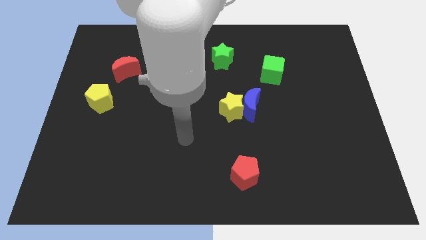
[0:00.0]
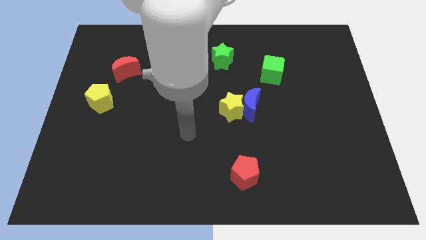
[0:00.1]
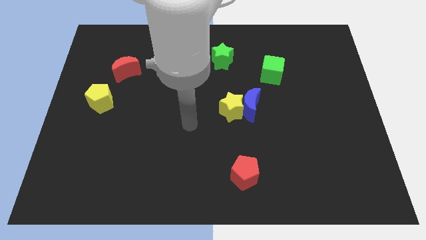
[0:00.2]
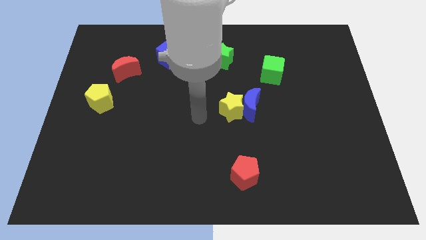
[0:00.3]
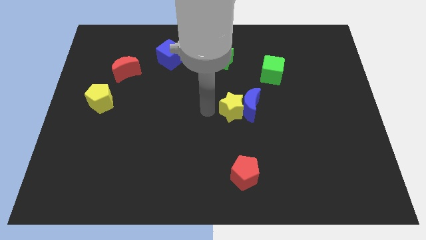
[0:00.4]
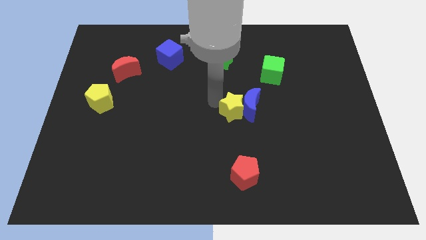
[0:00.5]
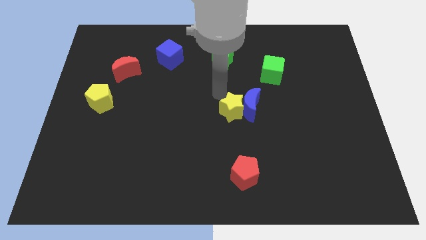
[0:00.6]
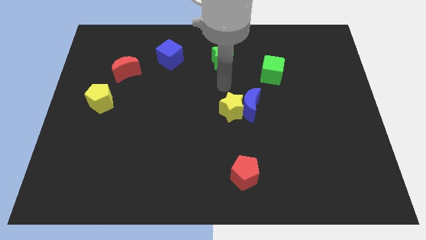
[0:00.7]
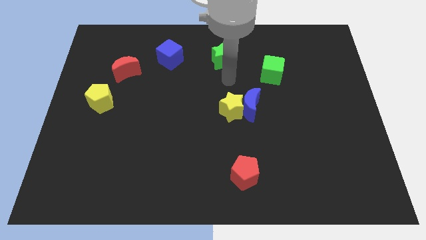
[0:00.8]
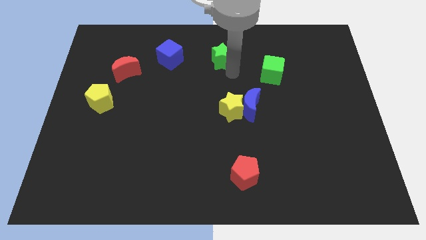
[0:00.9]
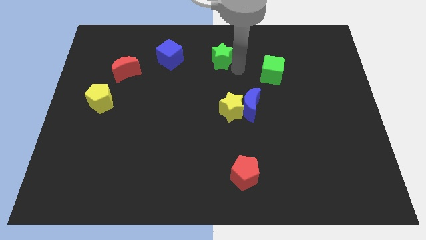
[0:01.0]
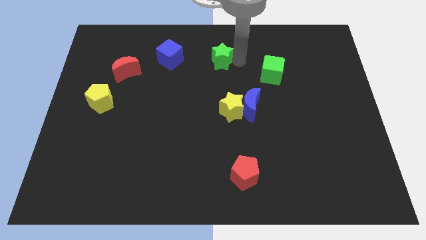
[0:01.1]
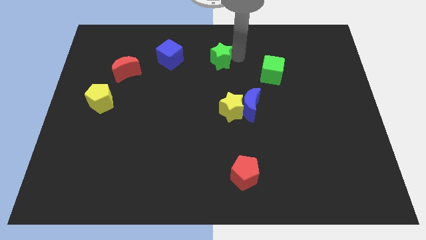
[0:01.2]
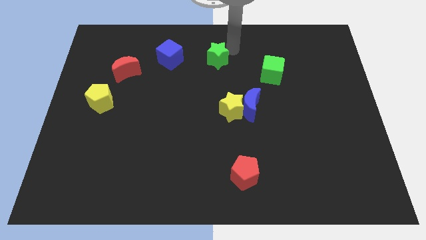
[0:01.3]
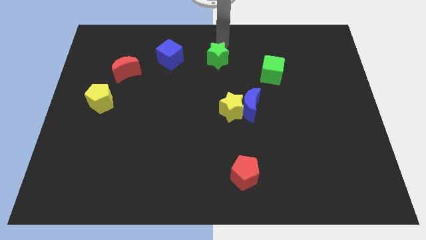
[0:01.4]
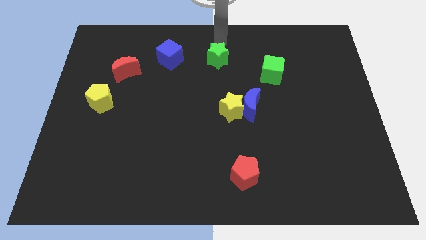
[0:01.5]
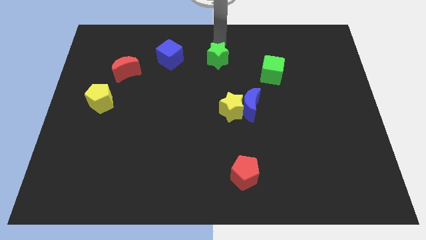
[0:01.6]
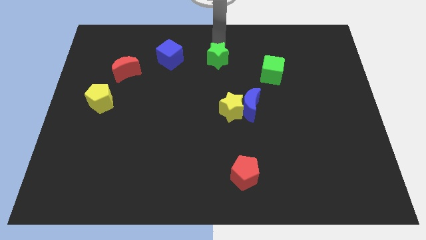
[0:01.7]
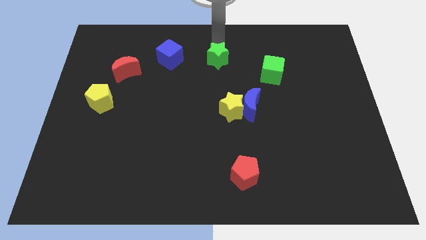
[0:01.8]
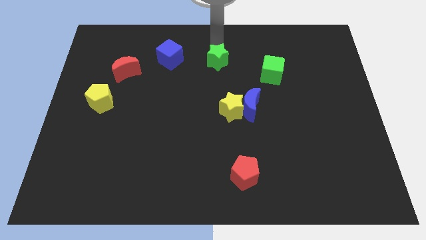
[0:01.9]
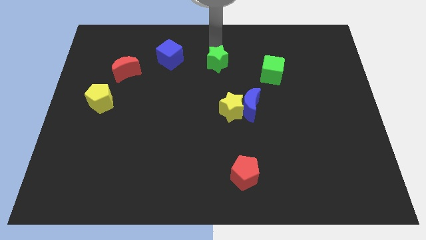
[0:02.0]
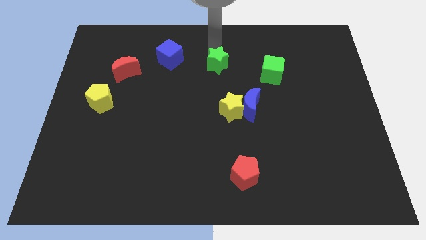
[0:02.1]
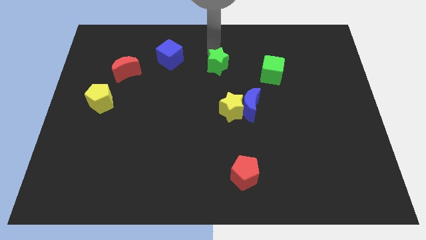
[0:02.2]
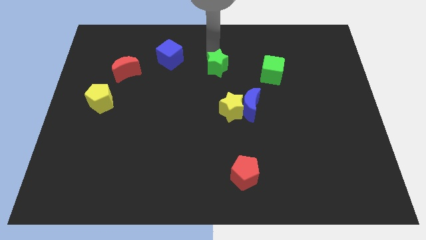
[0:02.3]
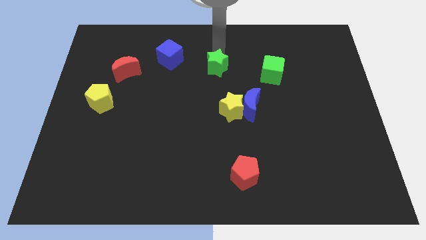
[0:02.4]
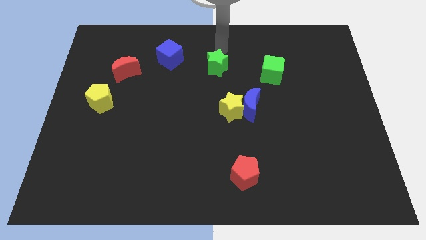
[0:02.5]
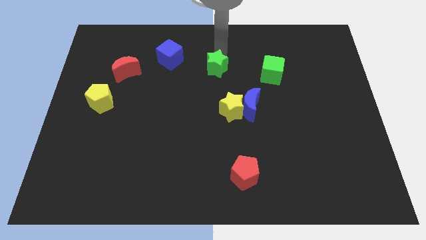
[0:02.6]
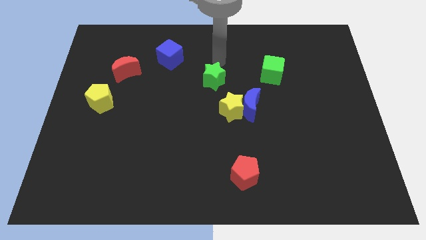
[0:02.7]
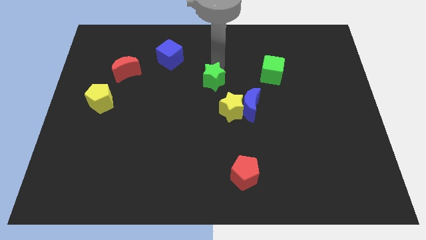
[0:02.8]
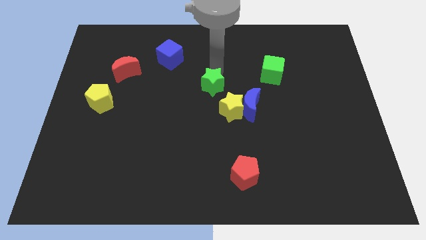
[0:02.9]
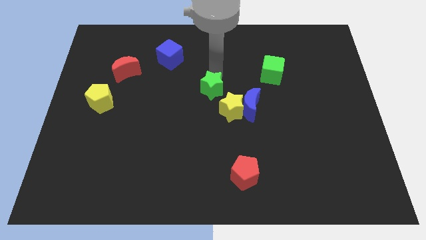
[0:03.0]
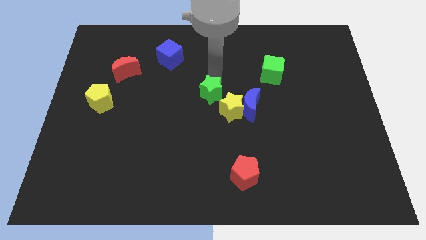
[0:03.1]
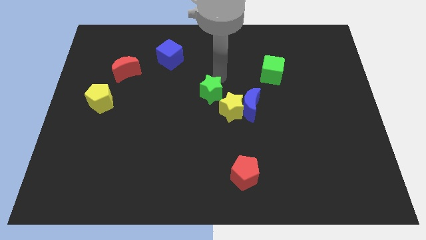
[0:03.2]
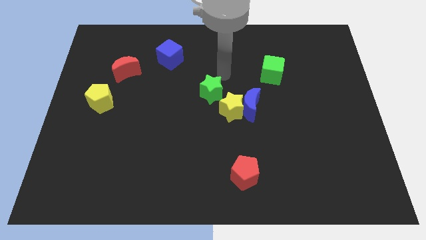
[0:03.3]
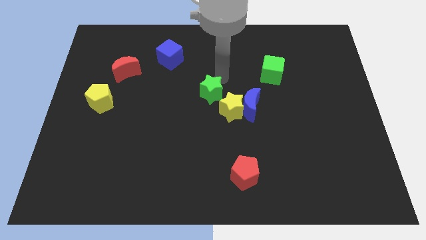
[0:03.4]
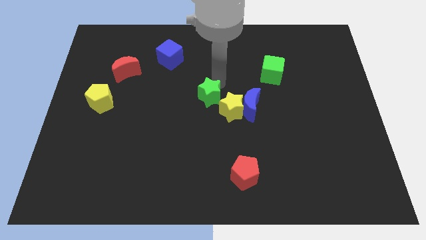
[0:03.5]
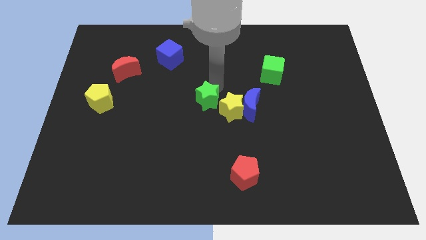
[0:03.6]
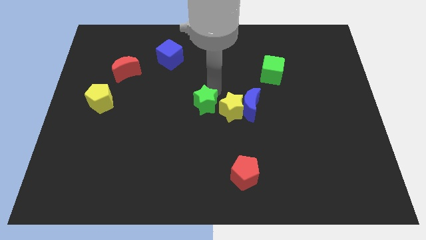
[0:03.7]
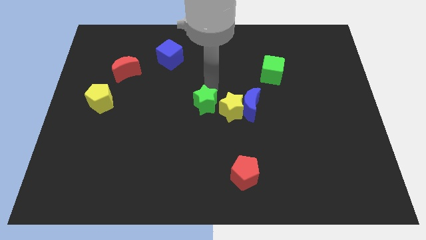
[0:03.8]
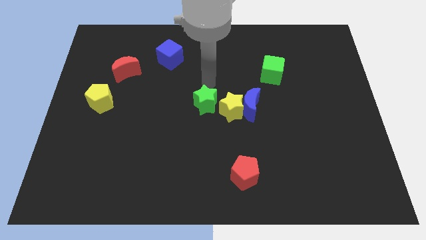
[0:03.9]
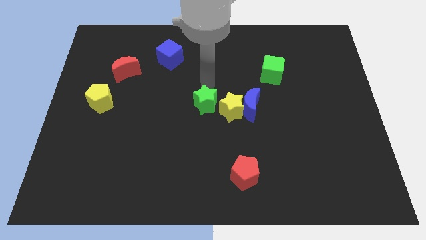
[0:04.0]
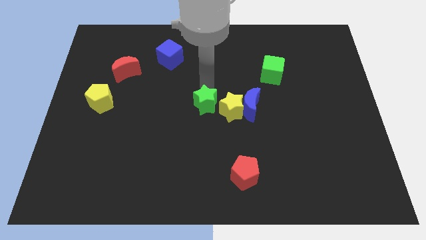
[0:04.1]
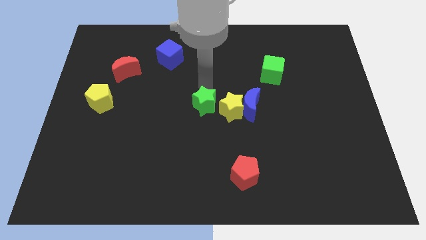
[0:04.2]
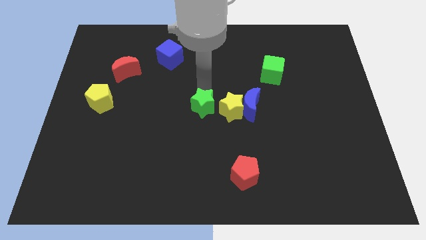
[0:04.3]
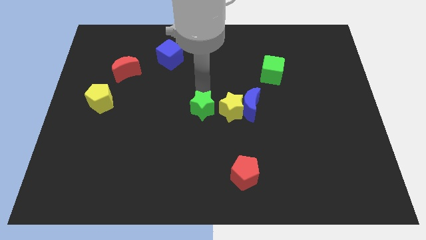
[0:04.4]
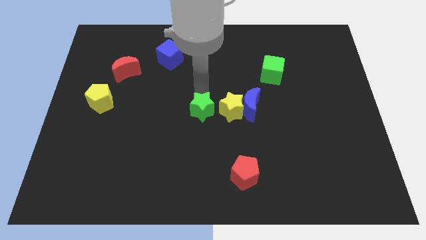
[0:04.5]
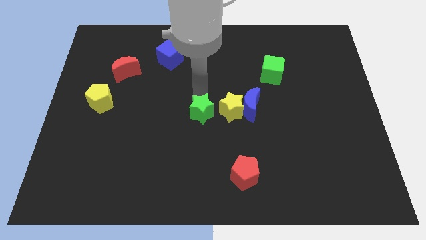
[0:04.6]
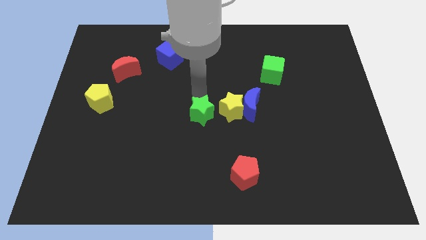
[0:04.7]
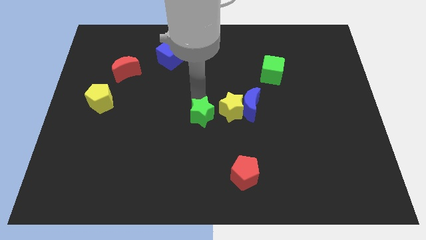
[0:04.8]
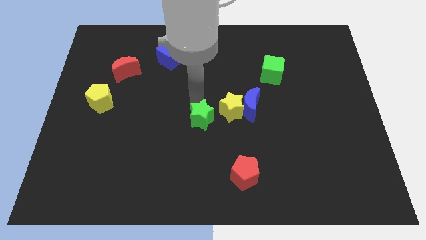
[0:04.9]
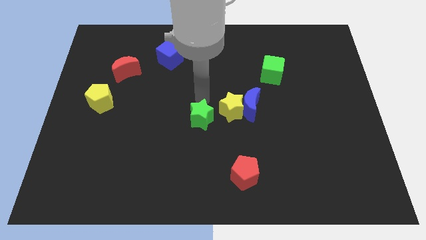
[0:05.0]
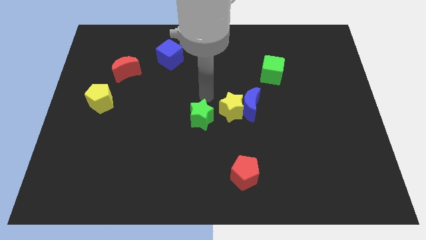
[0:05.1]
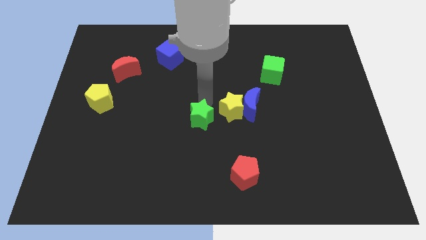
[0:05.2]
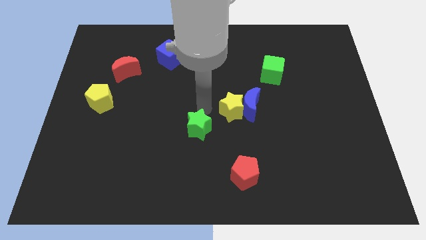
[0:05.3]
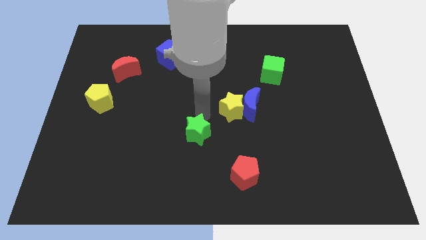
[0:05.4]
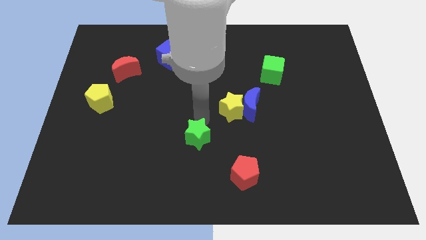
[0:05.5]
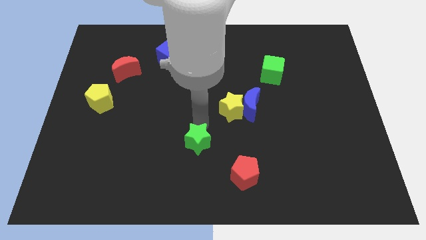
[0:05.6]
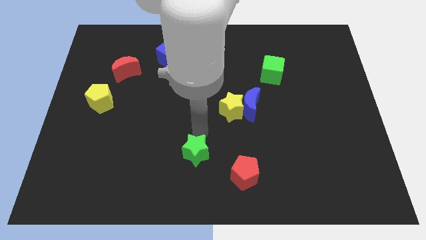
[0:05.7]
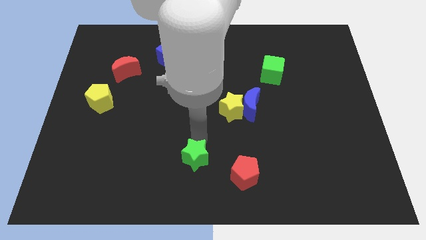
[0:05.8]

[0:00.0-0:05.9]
move the green star to the left side of the red pentagon

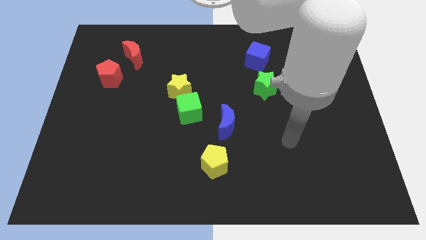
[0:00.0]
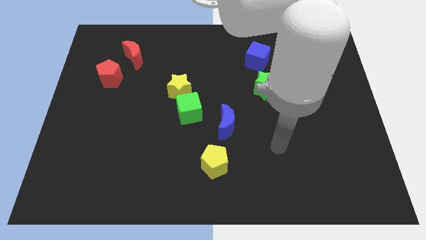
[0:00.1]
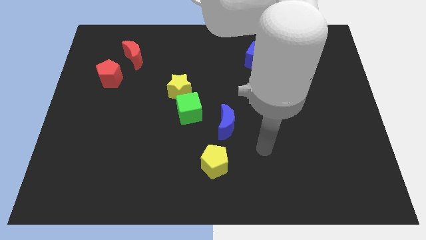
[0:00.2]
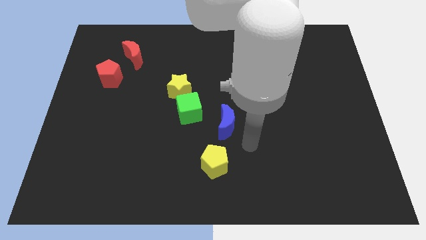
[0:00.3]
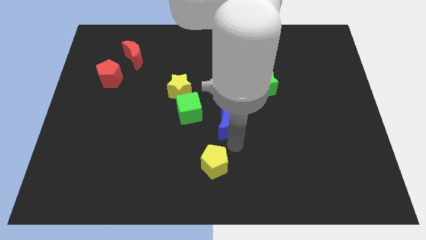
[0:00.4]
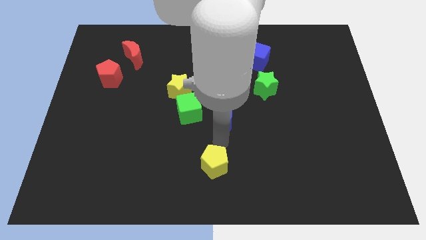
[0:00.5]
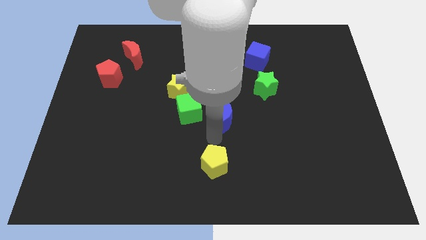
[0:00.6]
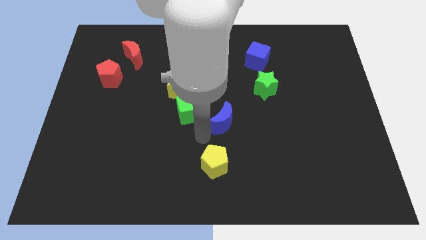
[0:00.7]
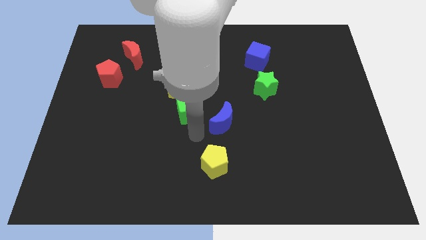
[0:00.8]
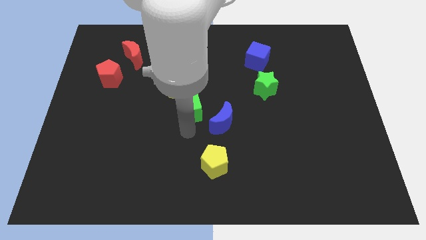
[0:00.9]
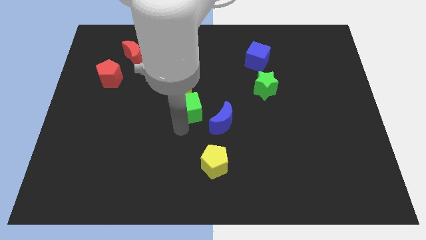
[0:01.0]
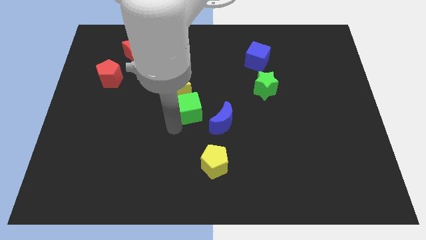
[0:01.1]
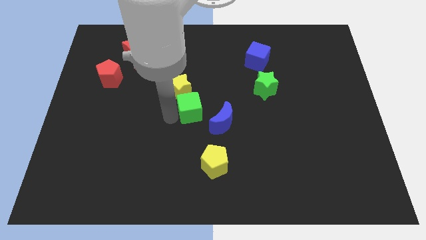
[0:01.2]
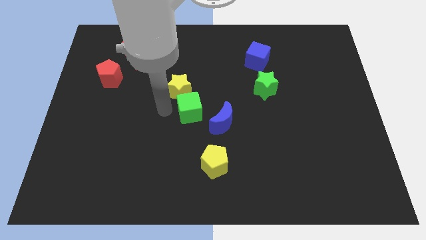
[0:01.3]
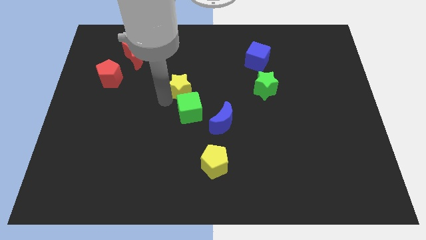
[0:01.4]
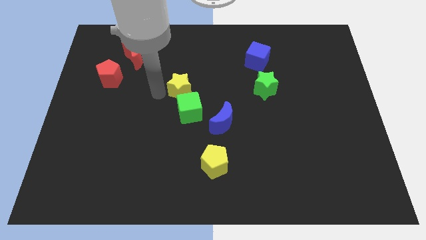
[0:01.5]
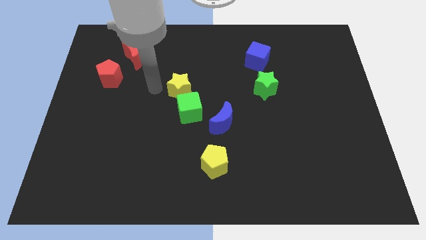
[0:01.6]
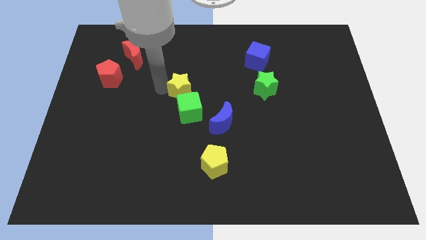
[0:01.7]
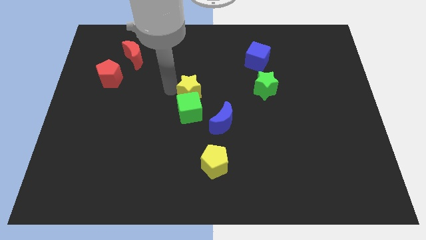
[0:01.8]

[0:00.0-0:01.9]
slide the yellow star diagonally up and to the right of the green cube
